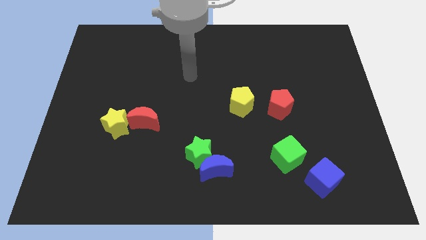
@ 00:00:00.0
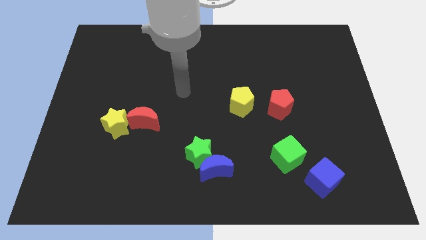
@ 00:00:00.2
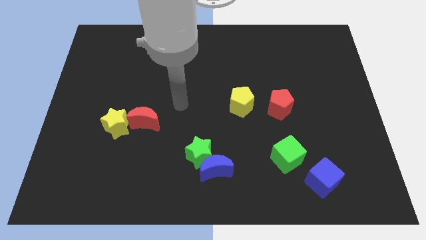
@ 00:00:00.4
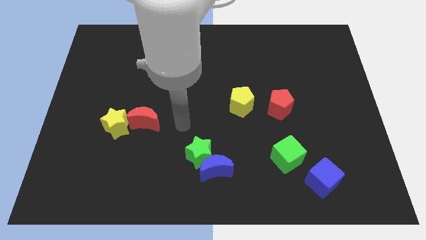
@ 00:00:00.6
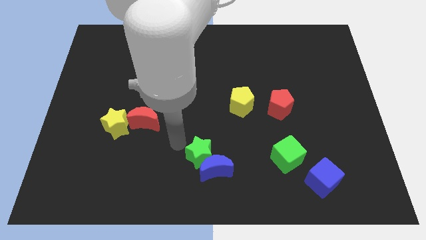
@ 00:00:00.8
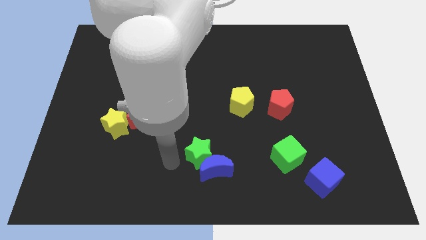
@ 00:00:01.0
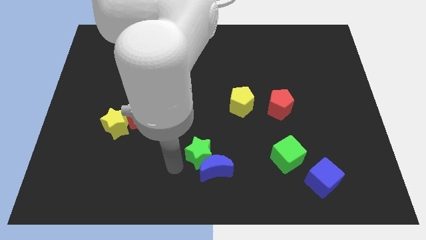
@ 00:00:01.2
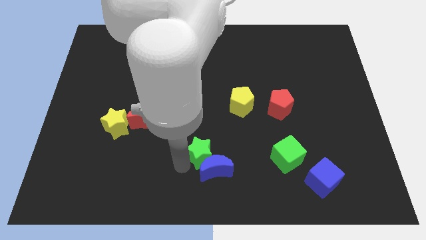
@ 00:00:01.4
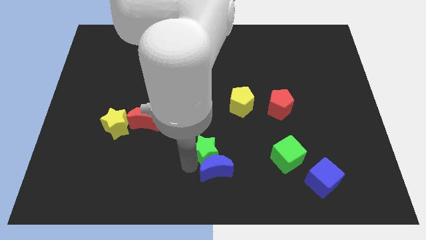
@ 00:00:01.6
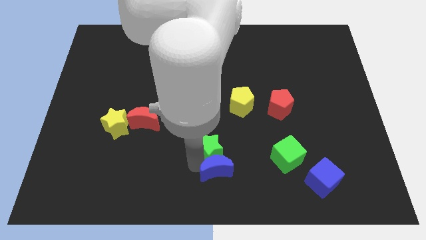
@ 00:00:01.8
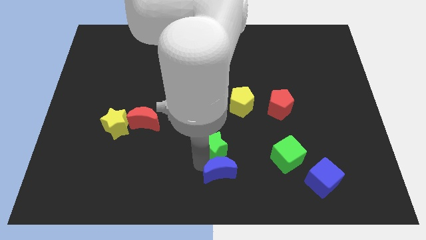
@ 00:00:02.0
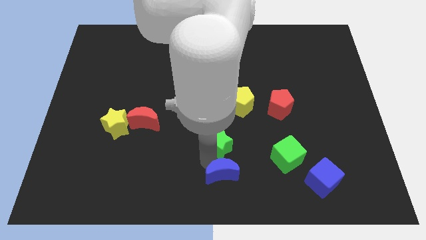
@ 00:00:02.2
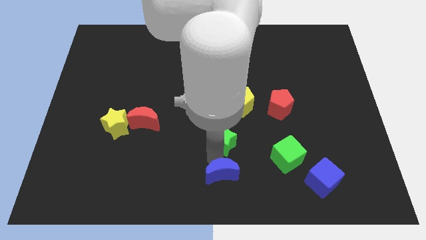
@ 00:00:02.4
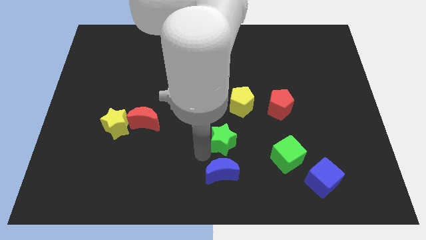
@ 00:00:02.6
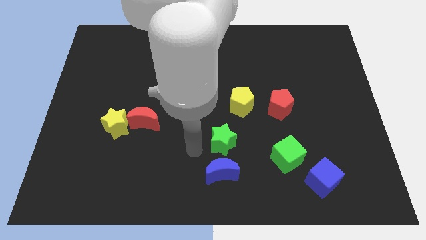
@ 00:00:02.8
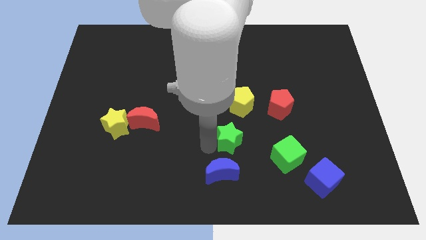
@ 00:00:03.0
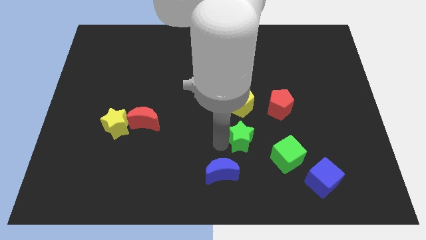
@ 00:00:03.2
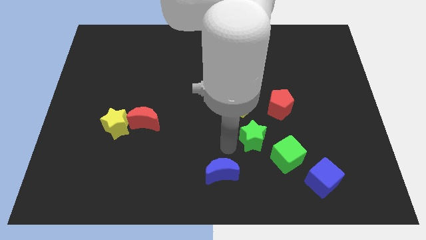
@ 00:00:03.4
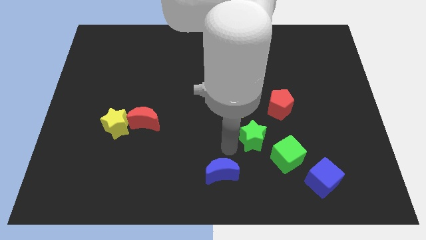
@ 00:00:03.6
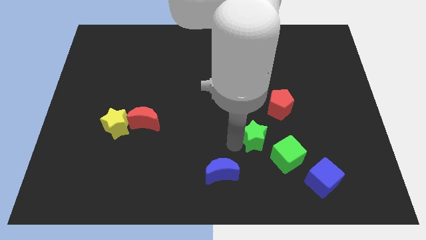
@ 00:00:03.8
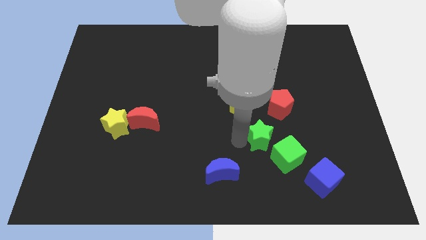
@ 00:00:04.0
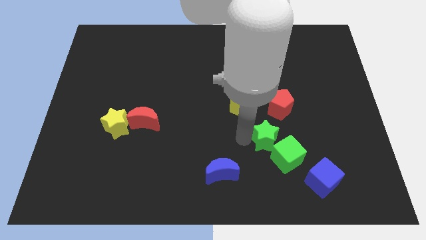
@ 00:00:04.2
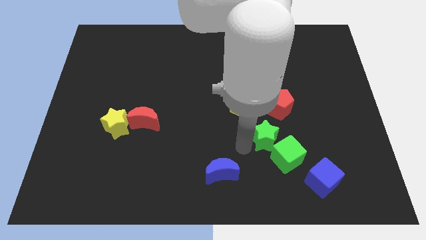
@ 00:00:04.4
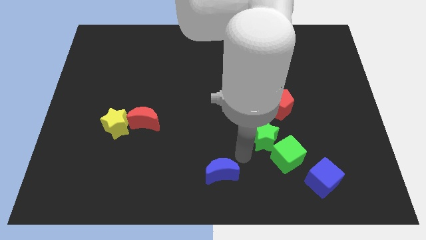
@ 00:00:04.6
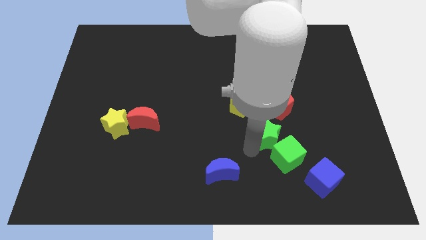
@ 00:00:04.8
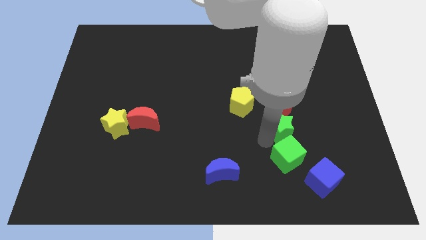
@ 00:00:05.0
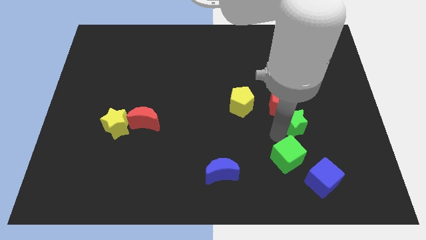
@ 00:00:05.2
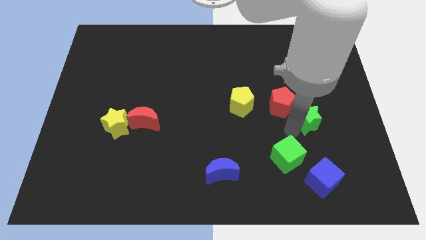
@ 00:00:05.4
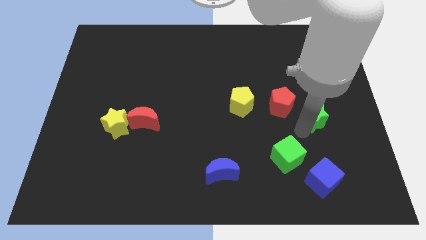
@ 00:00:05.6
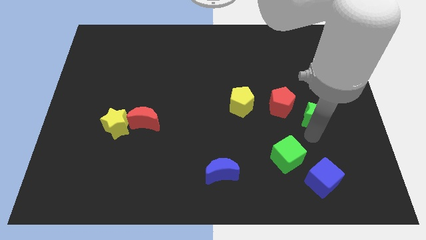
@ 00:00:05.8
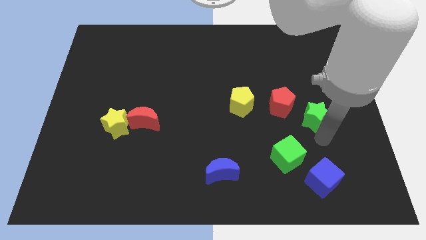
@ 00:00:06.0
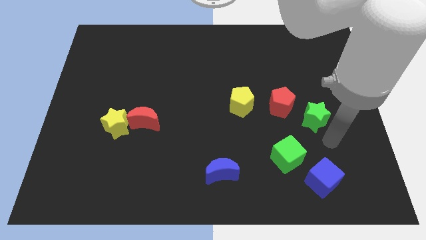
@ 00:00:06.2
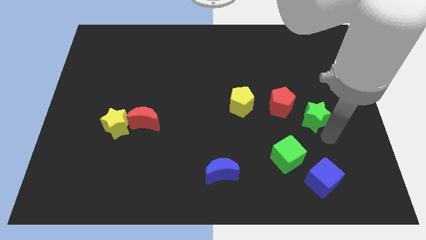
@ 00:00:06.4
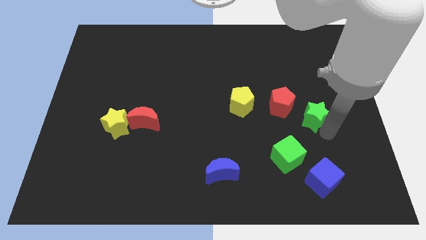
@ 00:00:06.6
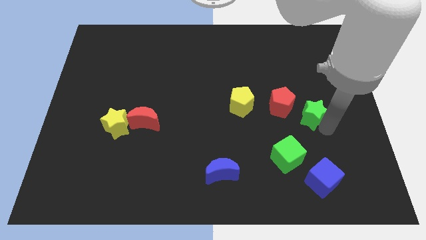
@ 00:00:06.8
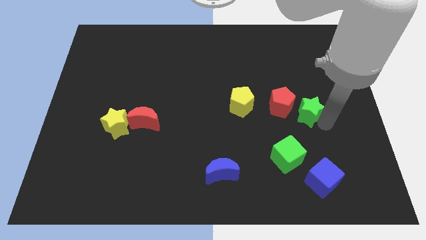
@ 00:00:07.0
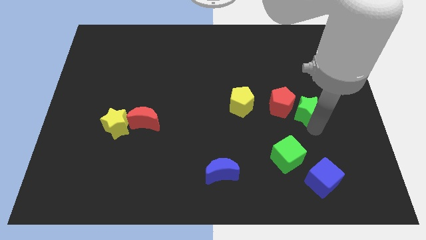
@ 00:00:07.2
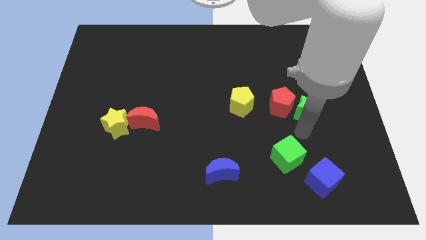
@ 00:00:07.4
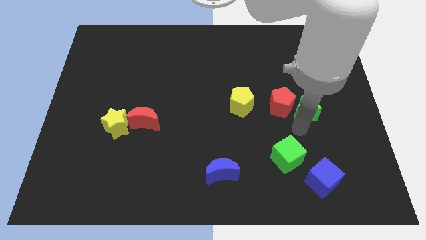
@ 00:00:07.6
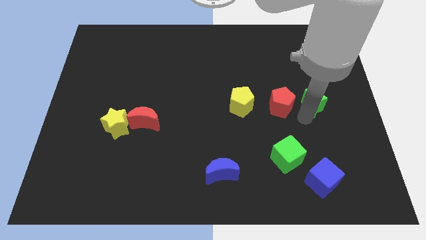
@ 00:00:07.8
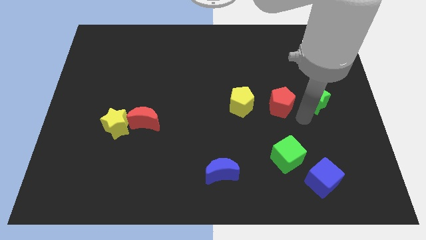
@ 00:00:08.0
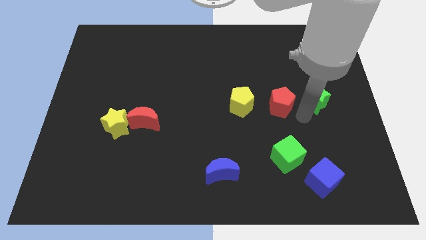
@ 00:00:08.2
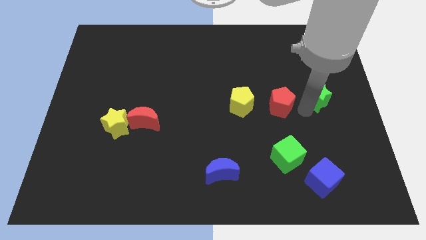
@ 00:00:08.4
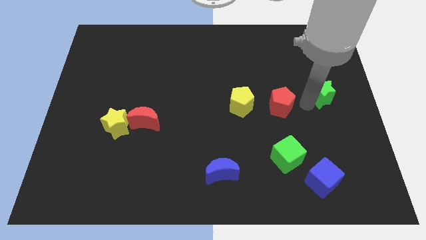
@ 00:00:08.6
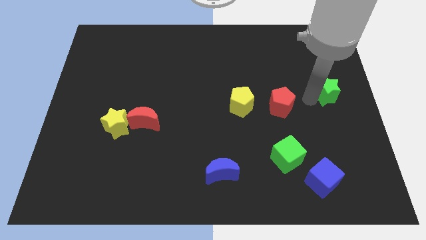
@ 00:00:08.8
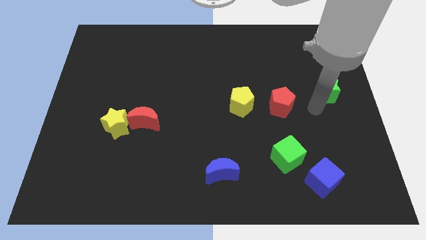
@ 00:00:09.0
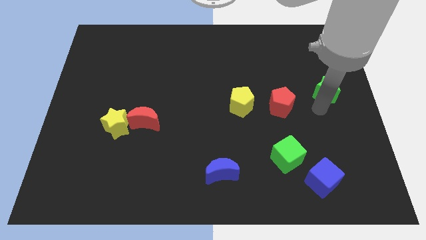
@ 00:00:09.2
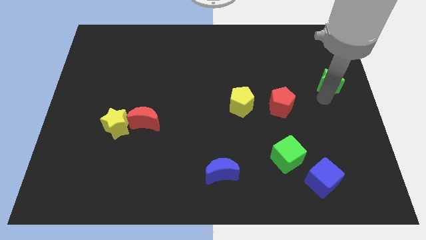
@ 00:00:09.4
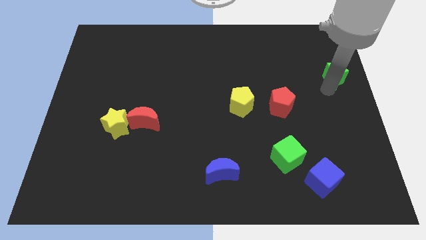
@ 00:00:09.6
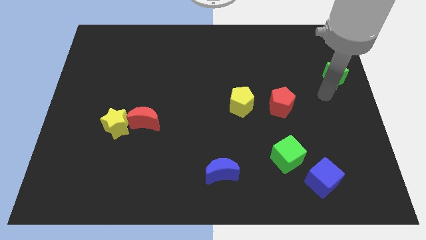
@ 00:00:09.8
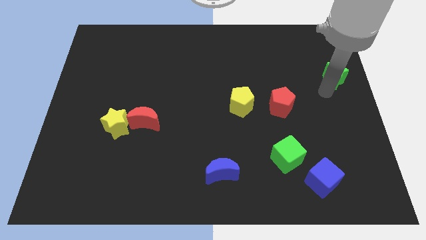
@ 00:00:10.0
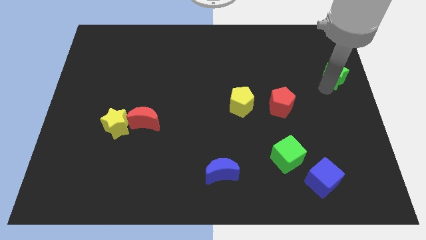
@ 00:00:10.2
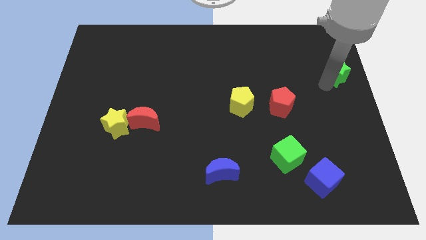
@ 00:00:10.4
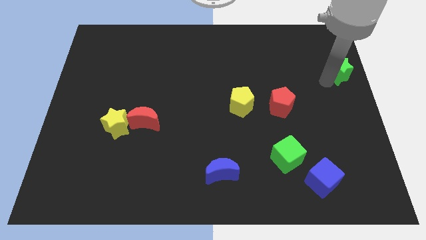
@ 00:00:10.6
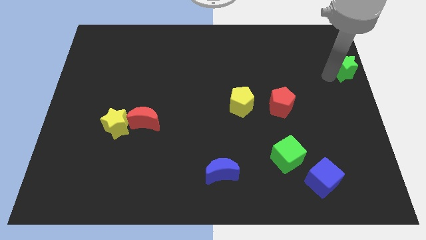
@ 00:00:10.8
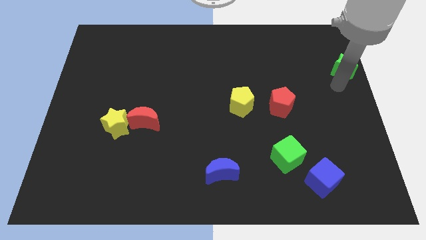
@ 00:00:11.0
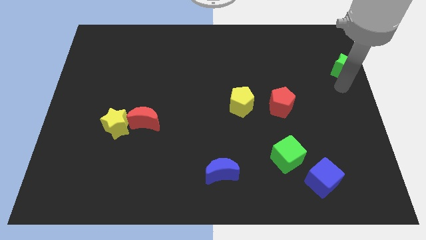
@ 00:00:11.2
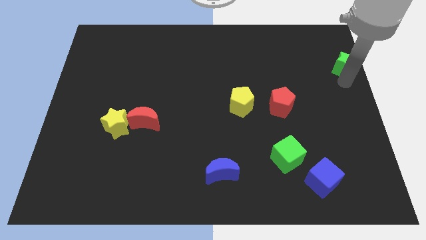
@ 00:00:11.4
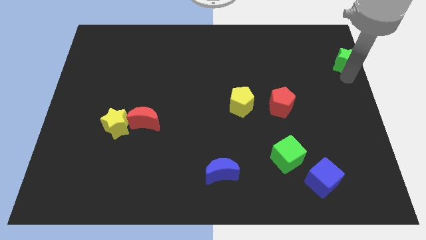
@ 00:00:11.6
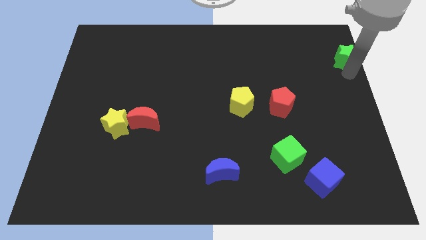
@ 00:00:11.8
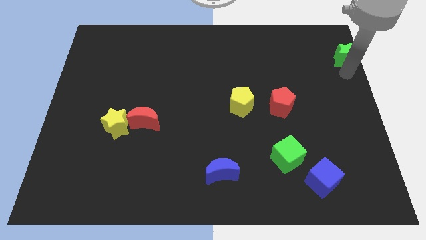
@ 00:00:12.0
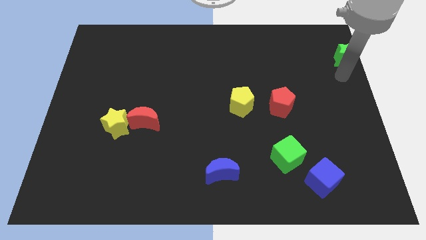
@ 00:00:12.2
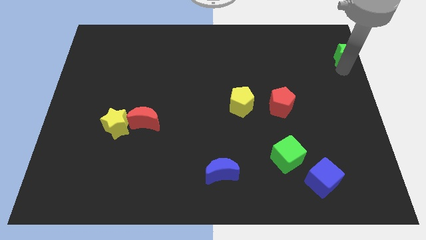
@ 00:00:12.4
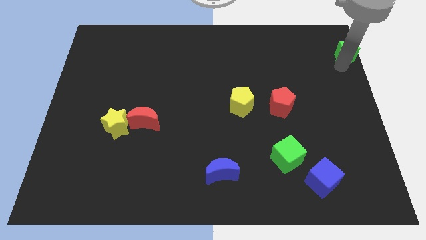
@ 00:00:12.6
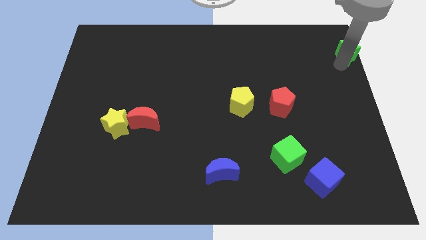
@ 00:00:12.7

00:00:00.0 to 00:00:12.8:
move the green star to the top right of the board
